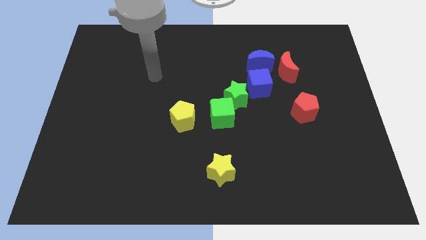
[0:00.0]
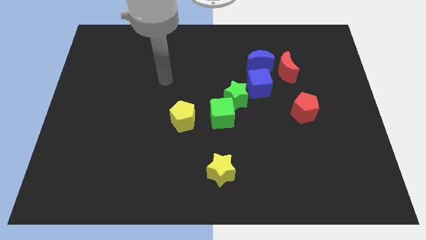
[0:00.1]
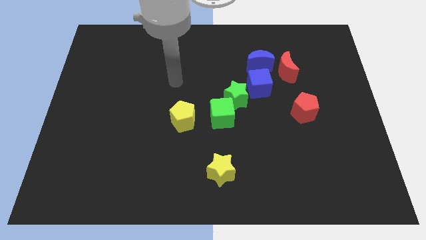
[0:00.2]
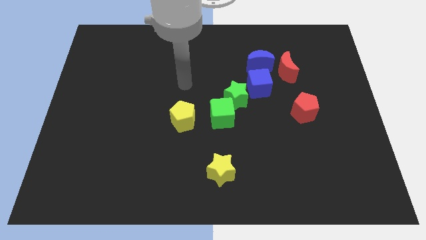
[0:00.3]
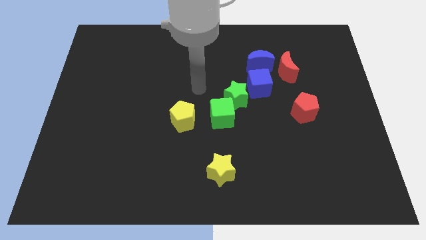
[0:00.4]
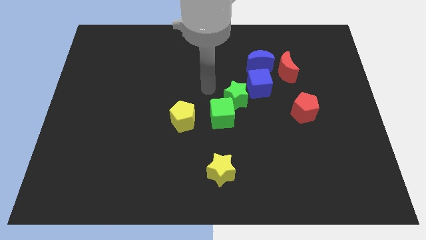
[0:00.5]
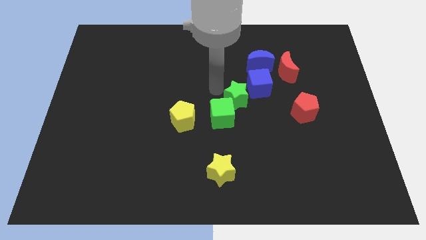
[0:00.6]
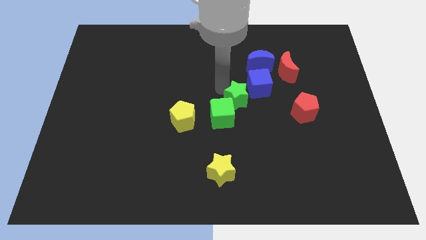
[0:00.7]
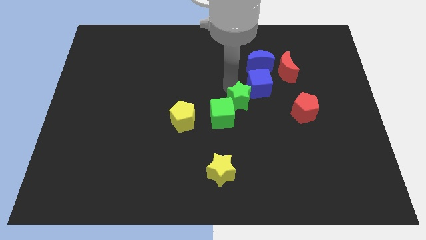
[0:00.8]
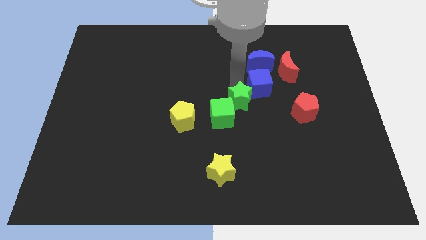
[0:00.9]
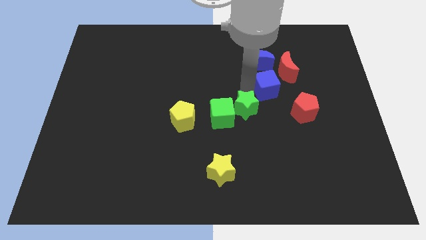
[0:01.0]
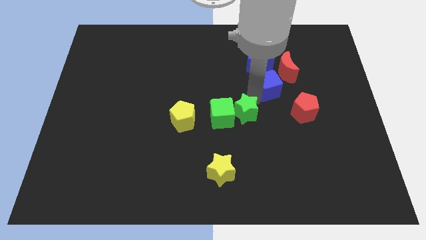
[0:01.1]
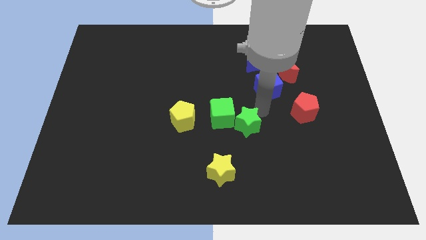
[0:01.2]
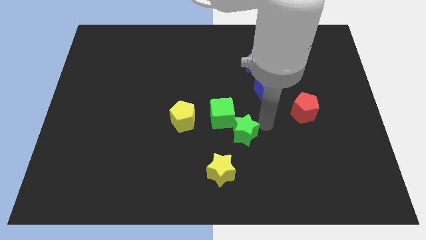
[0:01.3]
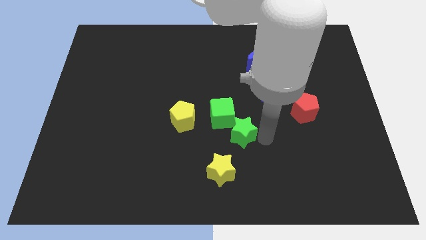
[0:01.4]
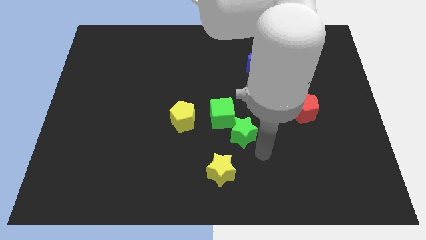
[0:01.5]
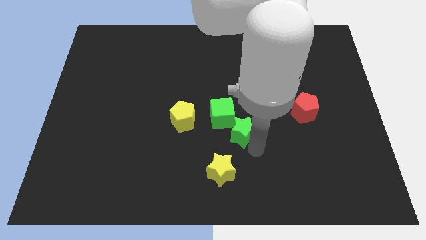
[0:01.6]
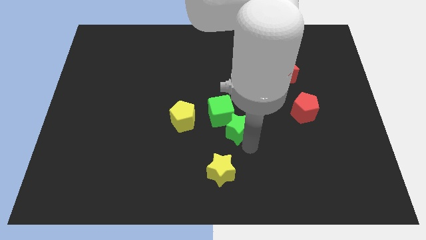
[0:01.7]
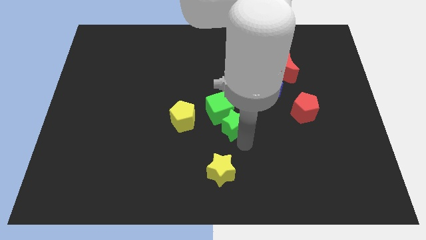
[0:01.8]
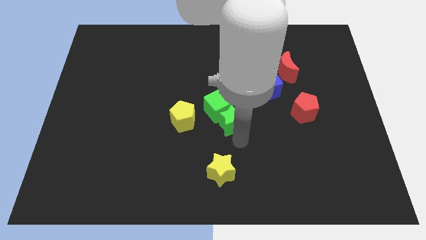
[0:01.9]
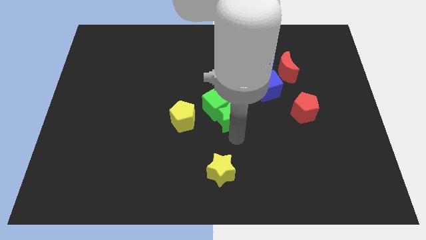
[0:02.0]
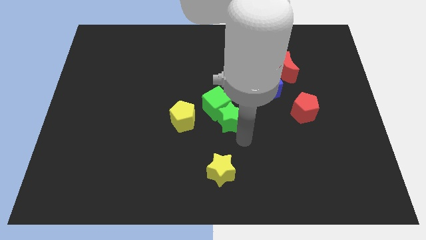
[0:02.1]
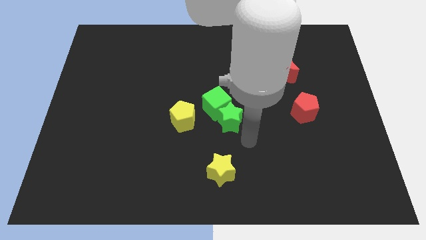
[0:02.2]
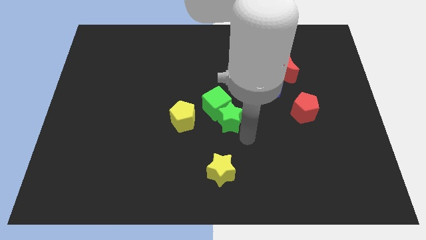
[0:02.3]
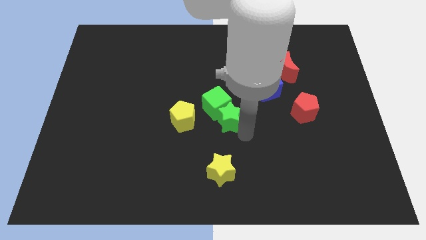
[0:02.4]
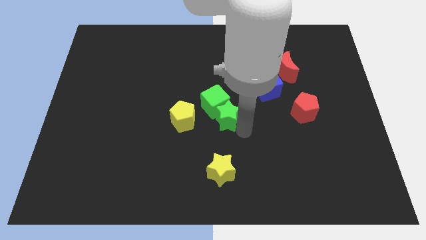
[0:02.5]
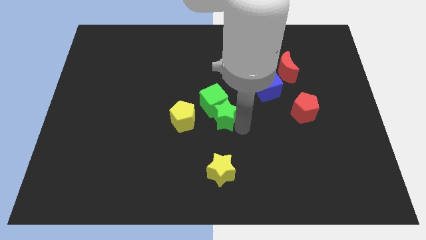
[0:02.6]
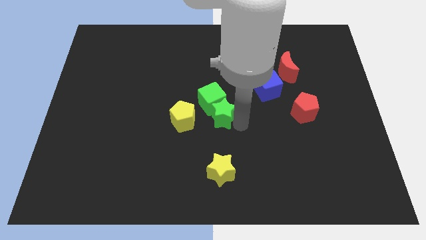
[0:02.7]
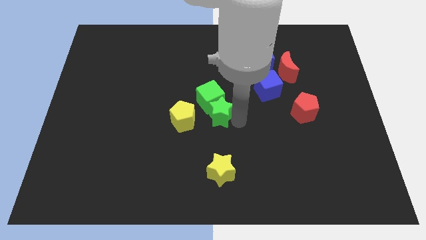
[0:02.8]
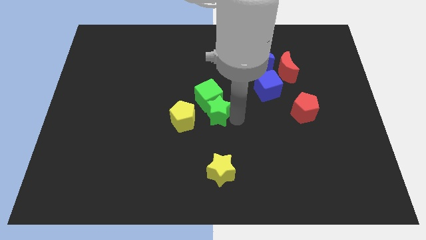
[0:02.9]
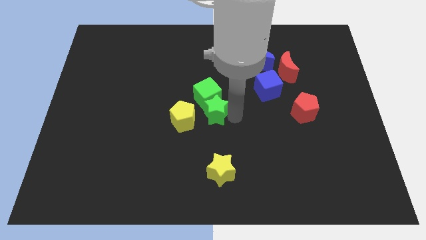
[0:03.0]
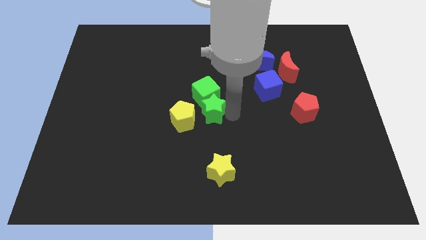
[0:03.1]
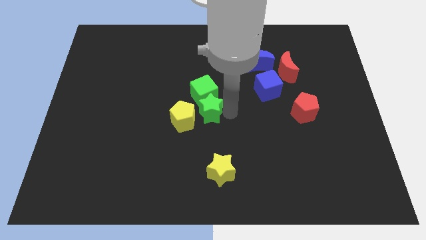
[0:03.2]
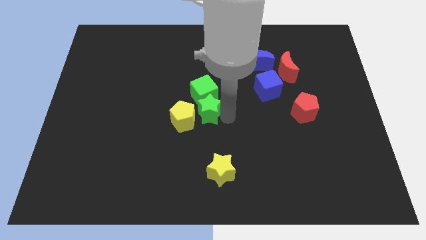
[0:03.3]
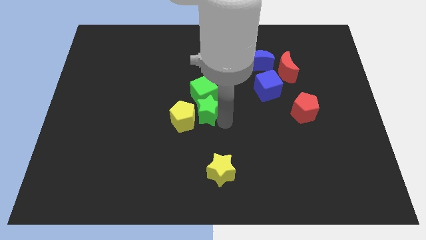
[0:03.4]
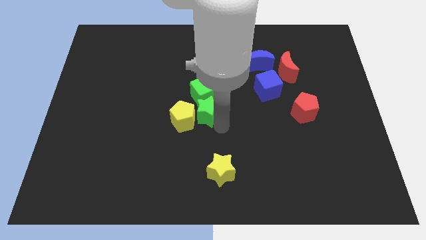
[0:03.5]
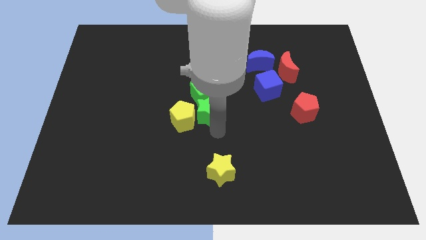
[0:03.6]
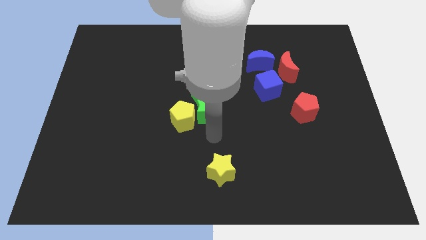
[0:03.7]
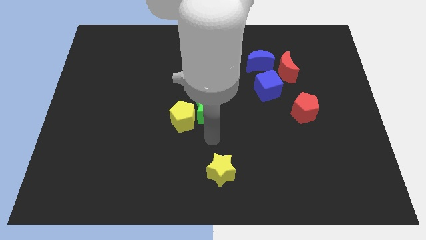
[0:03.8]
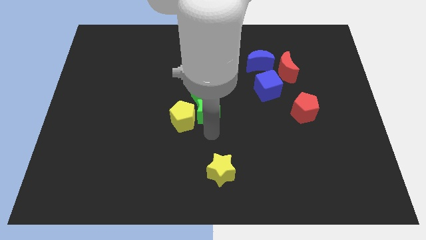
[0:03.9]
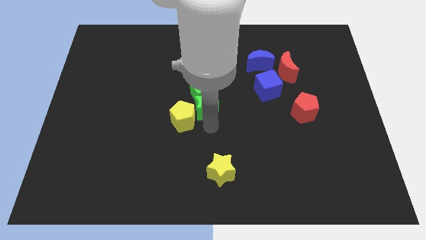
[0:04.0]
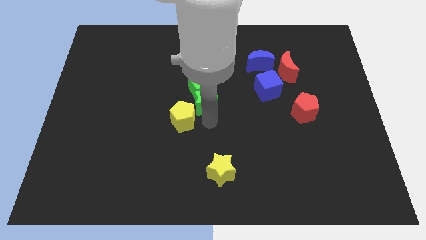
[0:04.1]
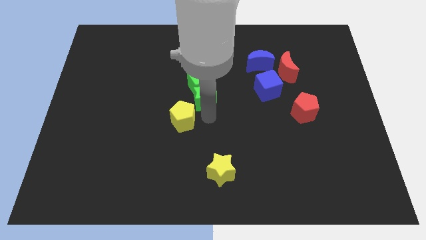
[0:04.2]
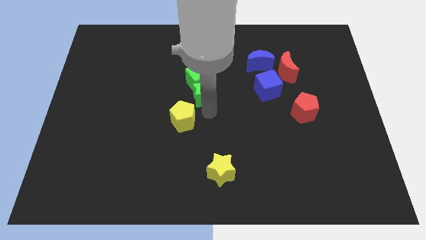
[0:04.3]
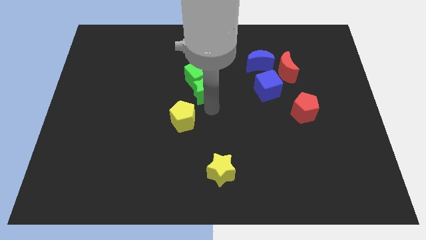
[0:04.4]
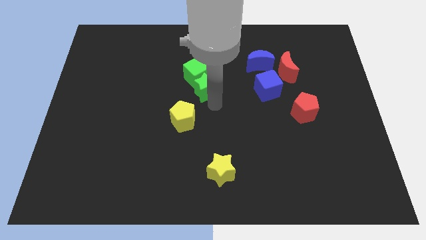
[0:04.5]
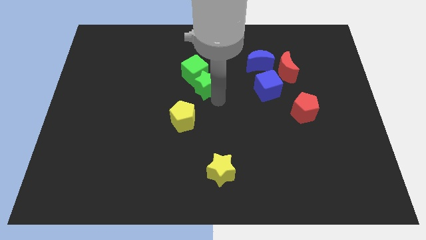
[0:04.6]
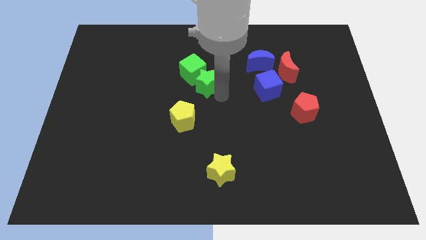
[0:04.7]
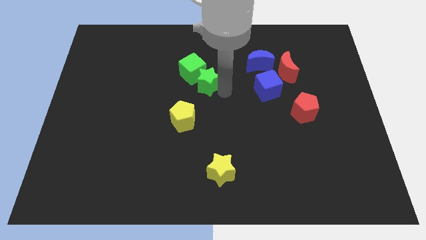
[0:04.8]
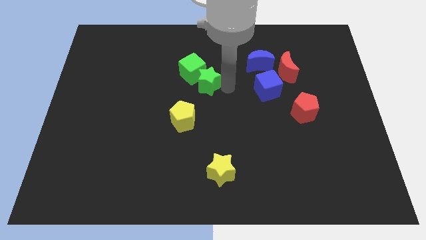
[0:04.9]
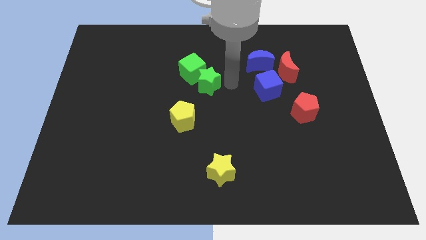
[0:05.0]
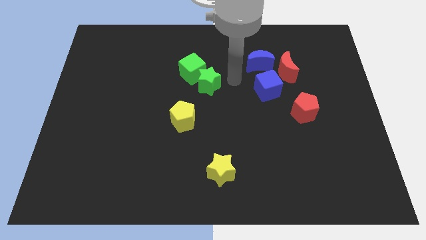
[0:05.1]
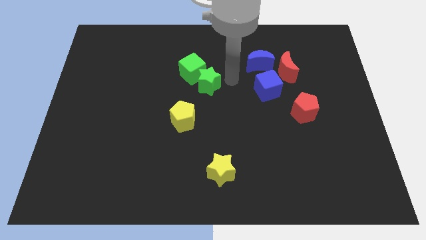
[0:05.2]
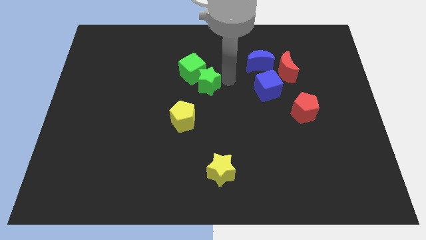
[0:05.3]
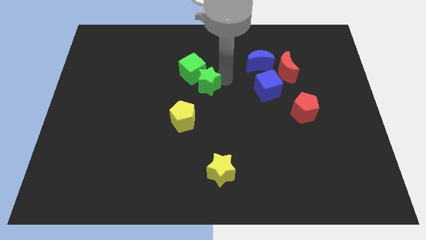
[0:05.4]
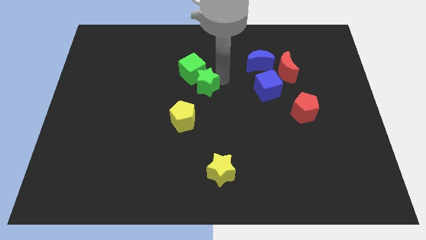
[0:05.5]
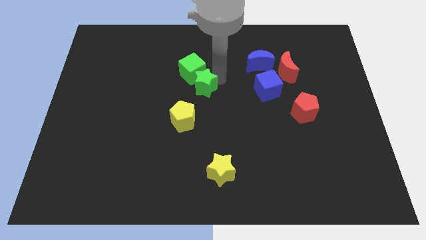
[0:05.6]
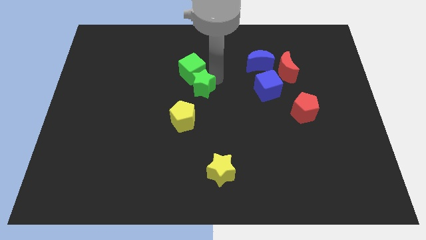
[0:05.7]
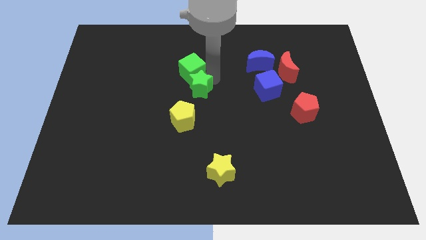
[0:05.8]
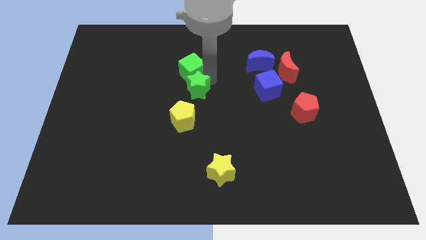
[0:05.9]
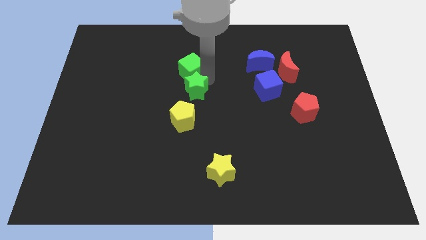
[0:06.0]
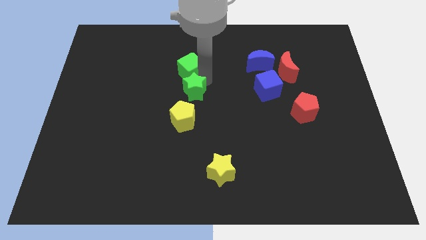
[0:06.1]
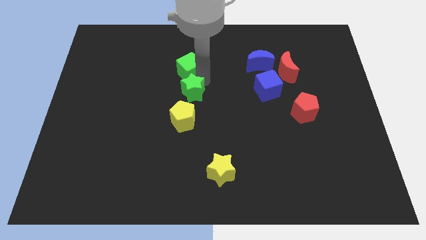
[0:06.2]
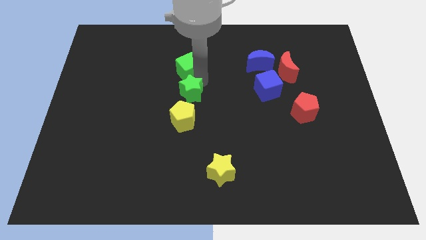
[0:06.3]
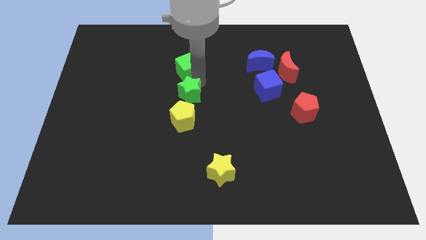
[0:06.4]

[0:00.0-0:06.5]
pull the green star apart from the green cube and blue cube

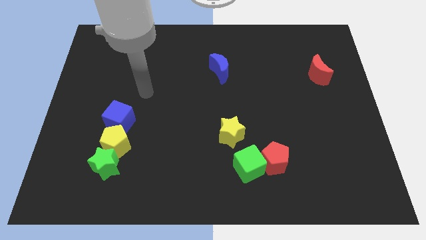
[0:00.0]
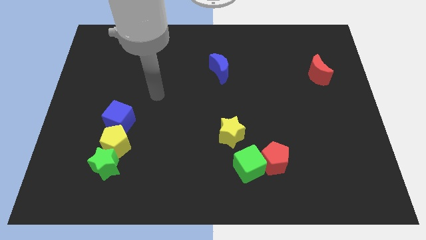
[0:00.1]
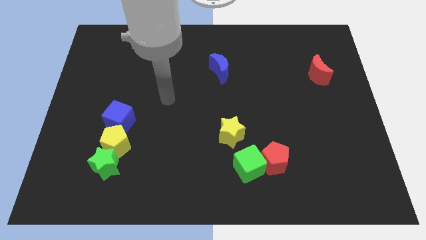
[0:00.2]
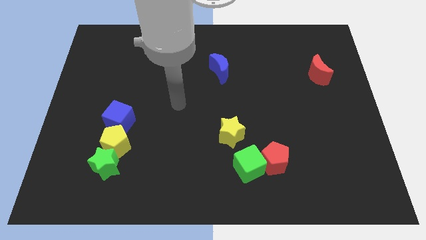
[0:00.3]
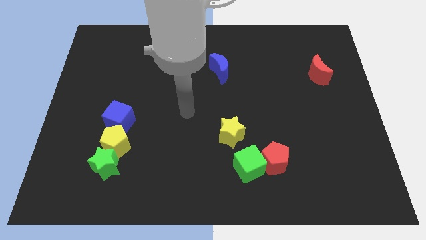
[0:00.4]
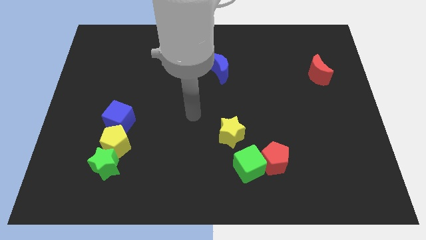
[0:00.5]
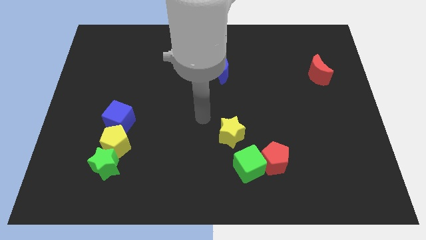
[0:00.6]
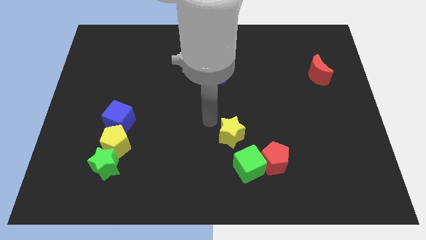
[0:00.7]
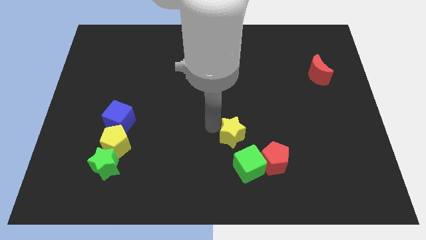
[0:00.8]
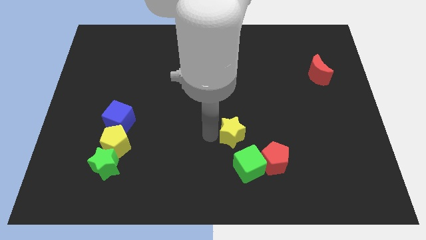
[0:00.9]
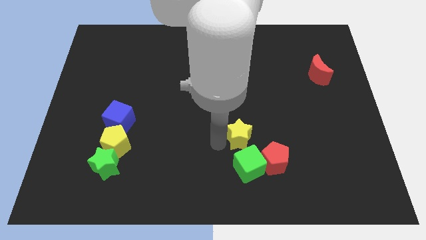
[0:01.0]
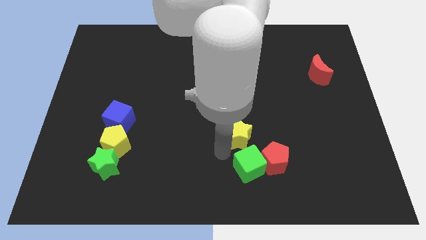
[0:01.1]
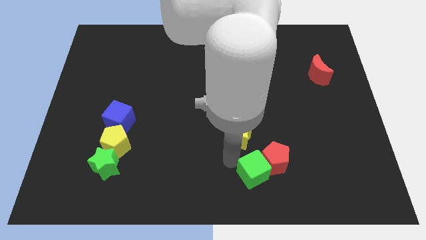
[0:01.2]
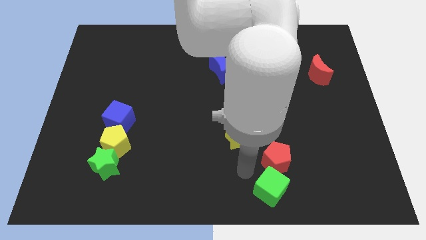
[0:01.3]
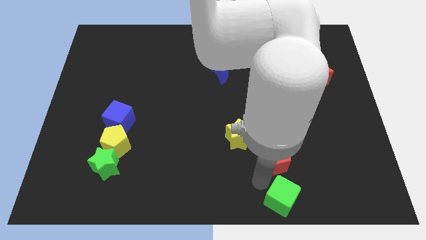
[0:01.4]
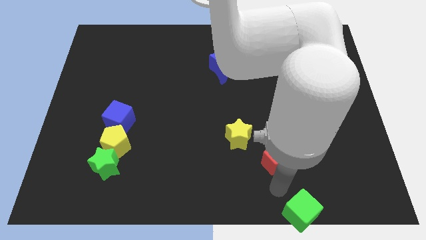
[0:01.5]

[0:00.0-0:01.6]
move the red pentagon away from the green cube

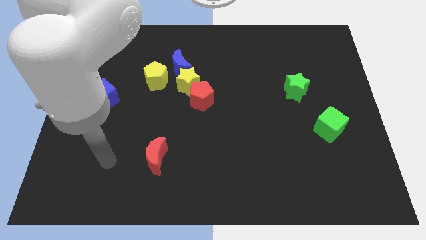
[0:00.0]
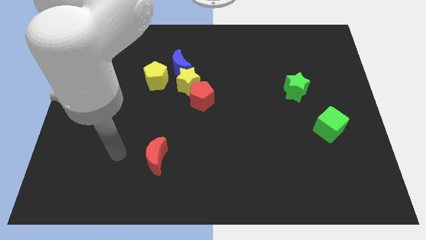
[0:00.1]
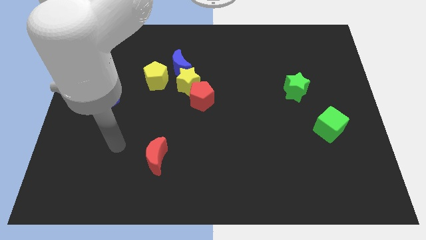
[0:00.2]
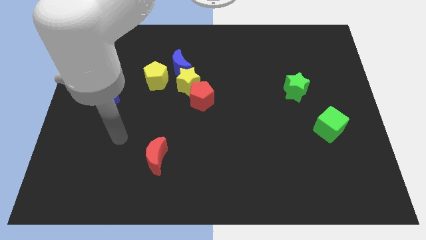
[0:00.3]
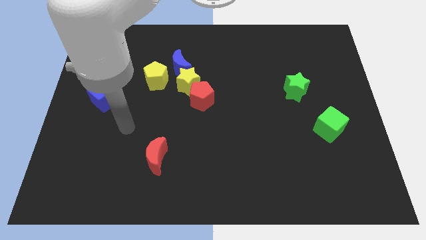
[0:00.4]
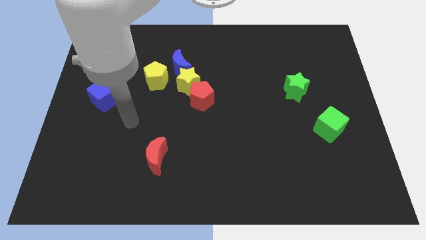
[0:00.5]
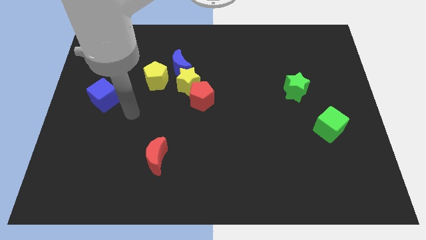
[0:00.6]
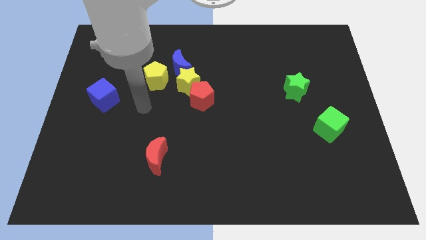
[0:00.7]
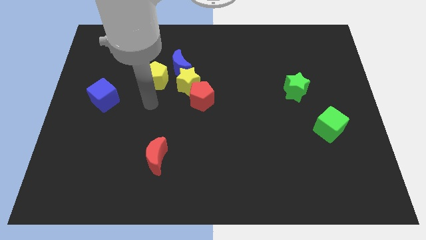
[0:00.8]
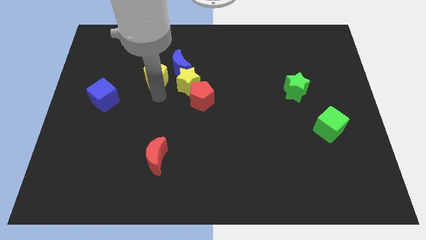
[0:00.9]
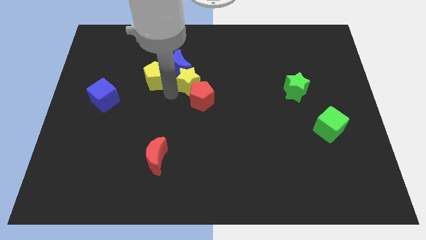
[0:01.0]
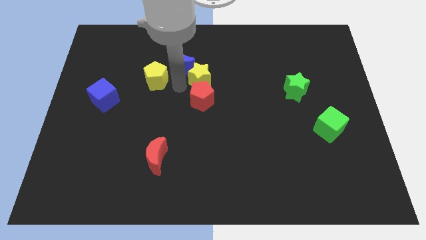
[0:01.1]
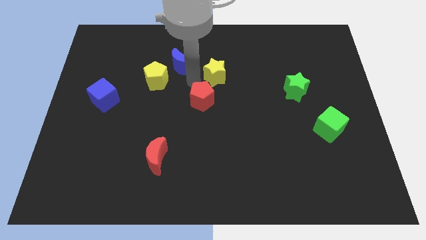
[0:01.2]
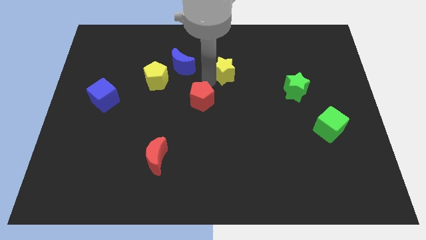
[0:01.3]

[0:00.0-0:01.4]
move the red pentagon away from the yellow star
